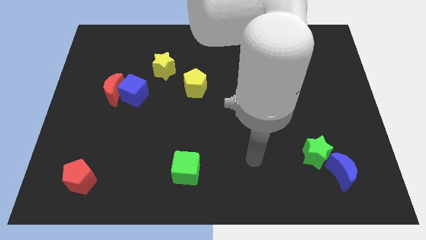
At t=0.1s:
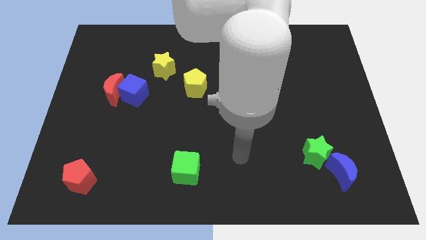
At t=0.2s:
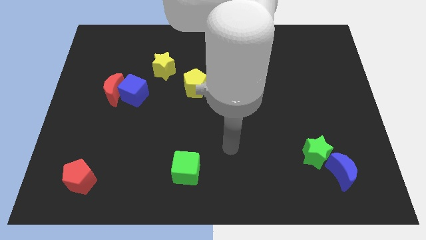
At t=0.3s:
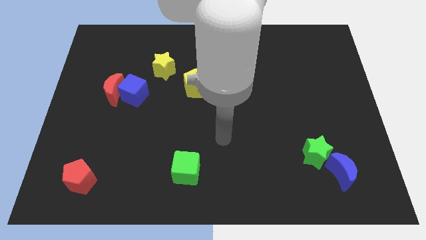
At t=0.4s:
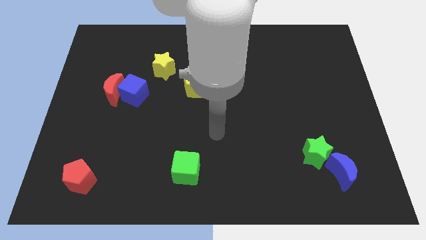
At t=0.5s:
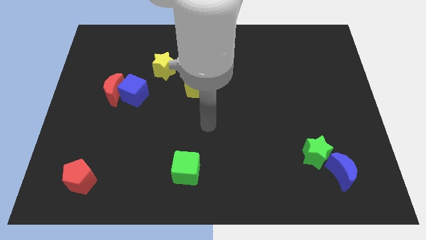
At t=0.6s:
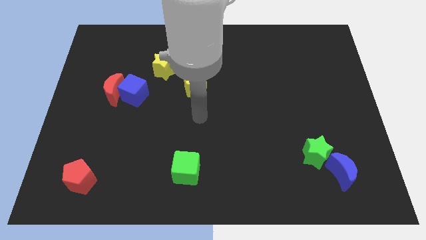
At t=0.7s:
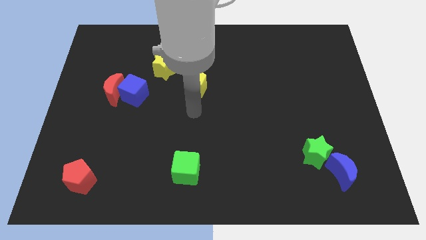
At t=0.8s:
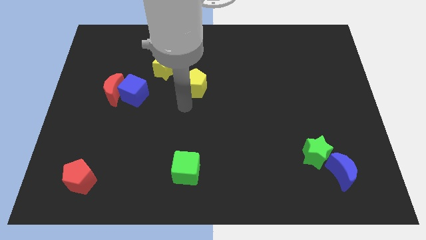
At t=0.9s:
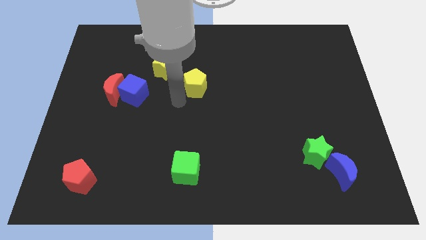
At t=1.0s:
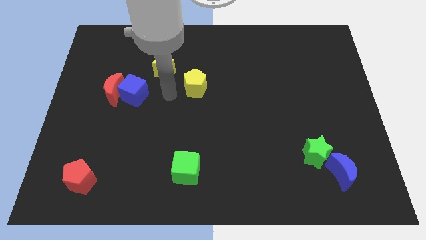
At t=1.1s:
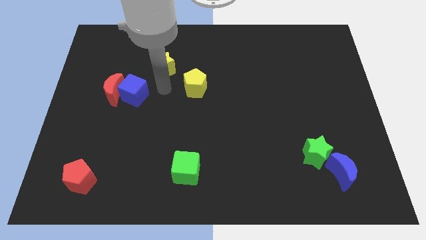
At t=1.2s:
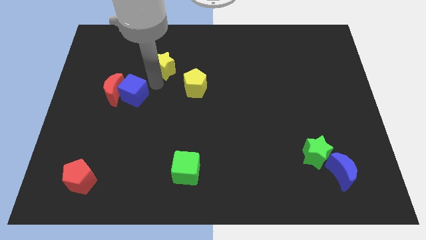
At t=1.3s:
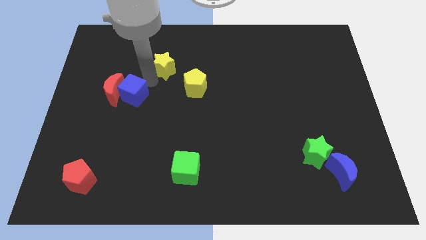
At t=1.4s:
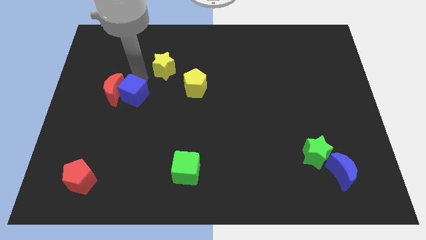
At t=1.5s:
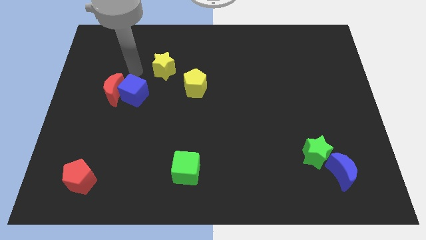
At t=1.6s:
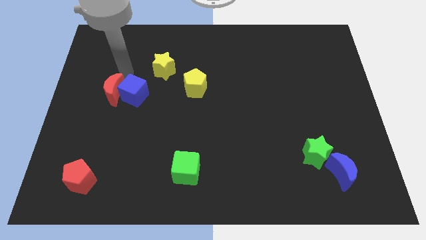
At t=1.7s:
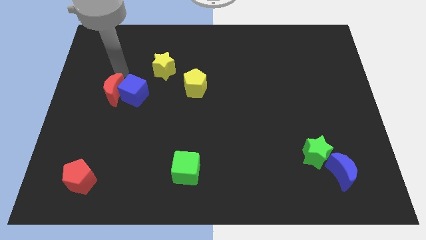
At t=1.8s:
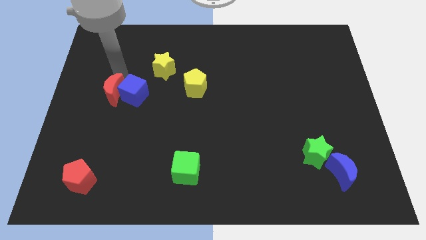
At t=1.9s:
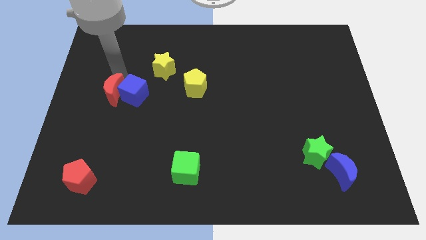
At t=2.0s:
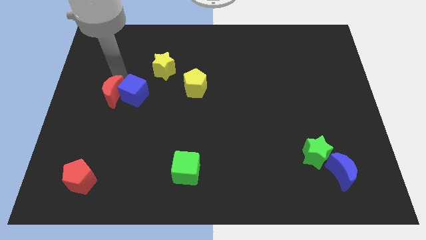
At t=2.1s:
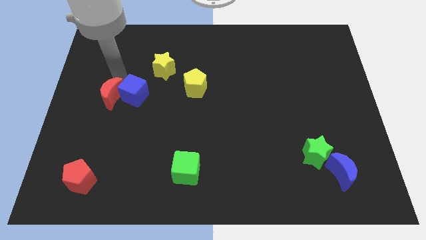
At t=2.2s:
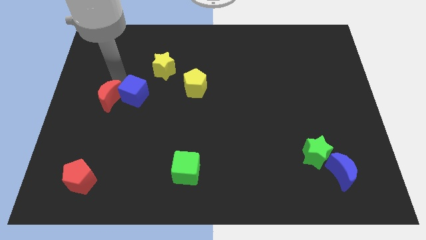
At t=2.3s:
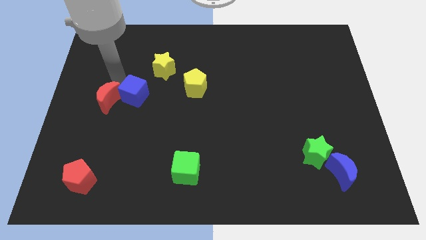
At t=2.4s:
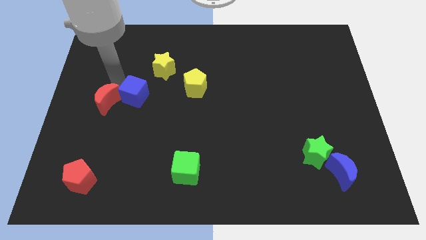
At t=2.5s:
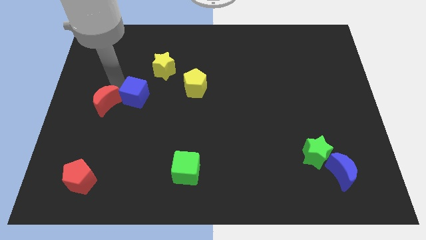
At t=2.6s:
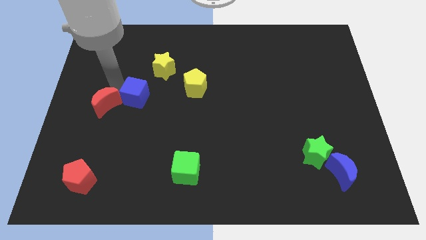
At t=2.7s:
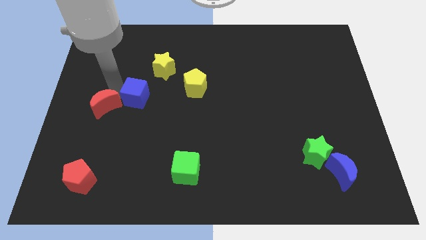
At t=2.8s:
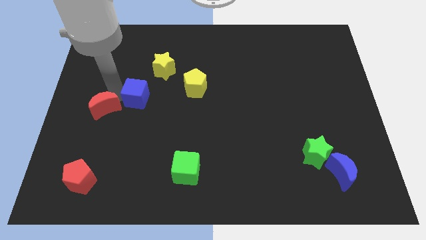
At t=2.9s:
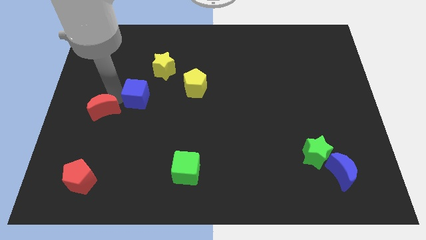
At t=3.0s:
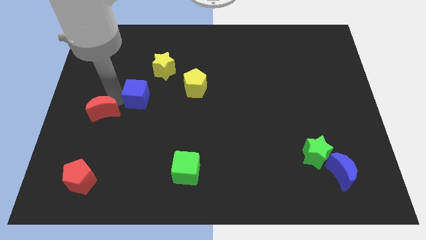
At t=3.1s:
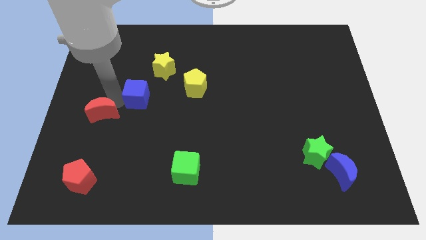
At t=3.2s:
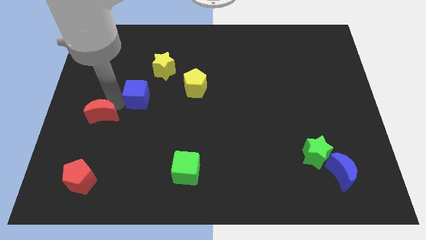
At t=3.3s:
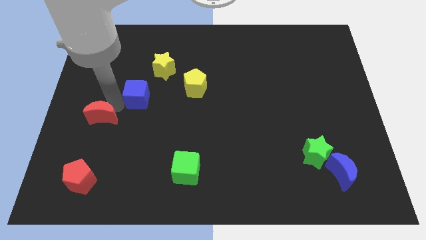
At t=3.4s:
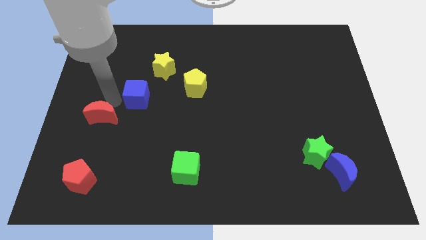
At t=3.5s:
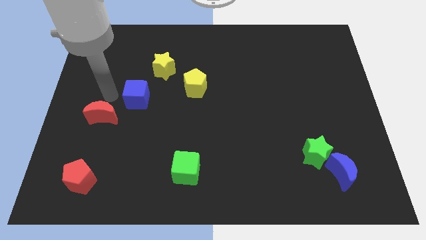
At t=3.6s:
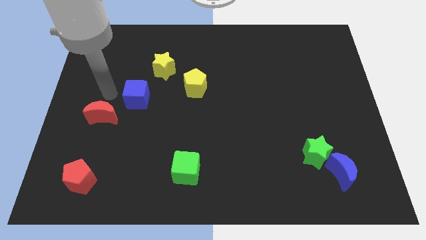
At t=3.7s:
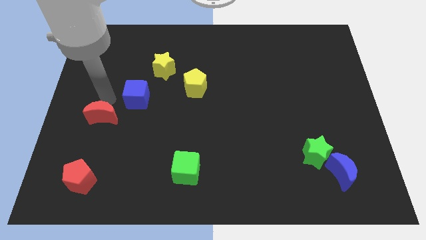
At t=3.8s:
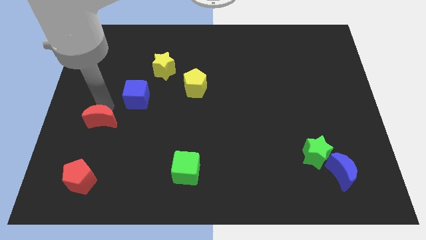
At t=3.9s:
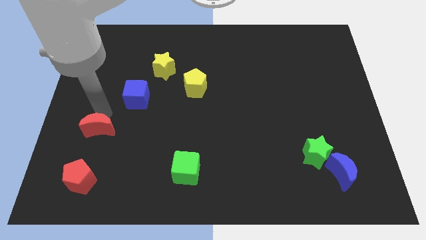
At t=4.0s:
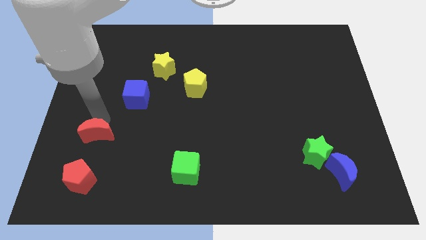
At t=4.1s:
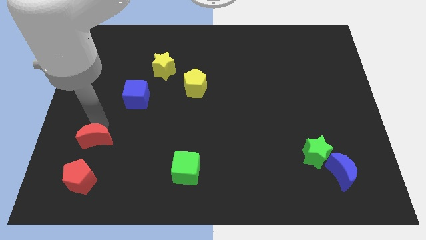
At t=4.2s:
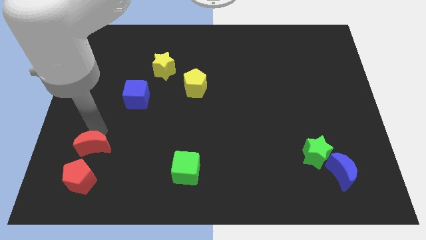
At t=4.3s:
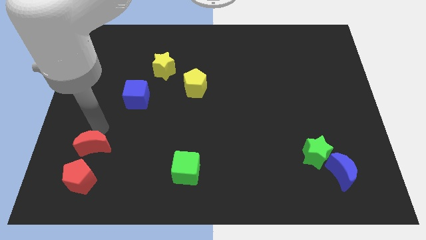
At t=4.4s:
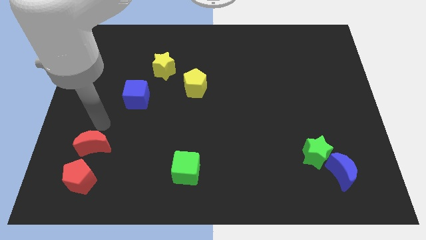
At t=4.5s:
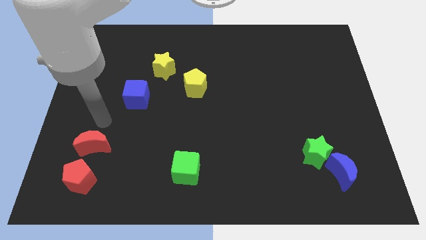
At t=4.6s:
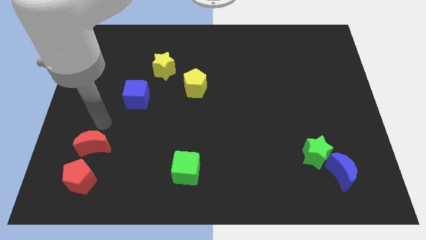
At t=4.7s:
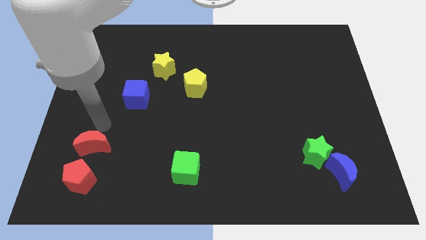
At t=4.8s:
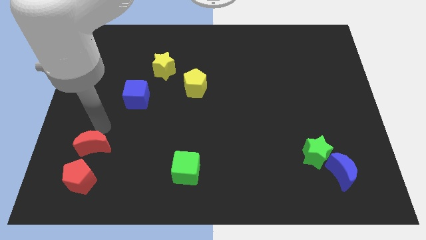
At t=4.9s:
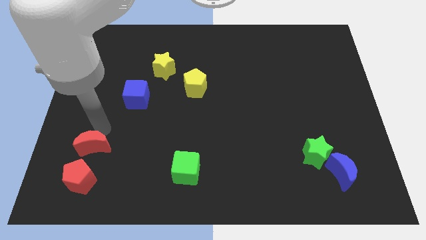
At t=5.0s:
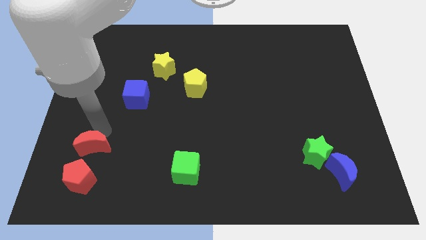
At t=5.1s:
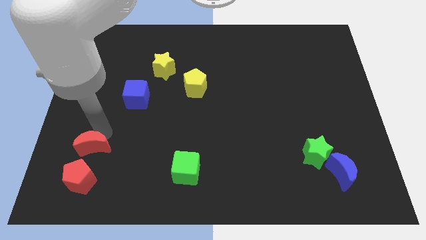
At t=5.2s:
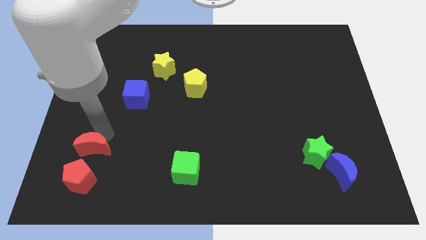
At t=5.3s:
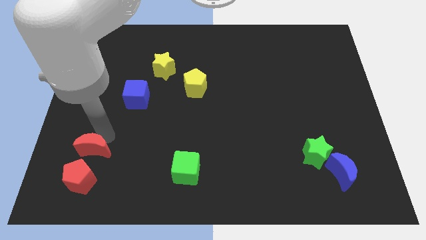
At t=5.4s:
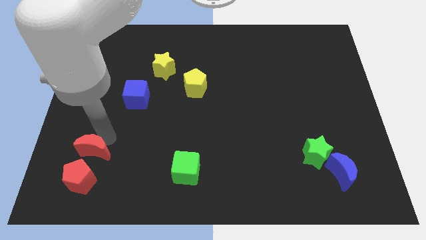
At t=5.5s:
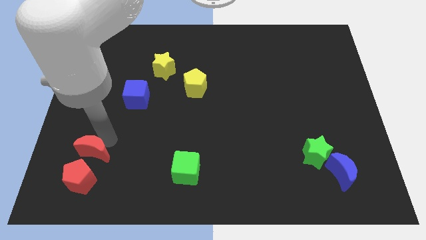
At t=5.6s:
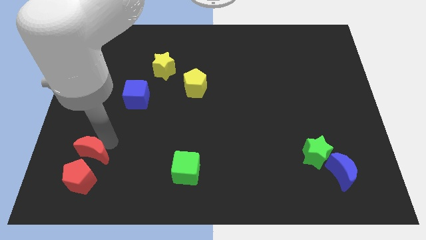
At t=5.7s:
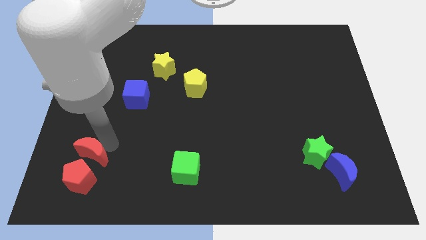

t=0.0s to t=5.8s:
push the red moon close to the red pentagon

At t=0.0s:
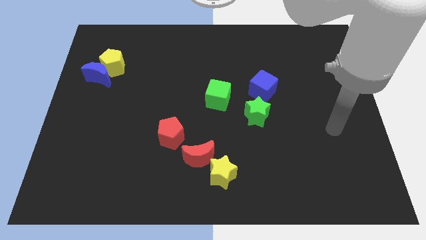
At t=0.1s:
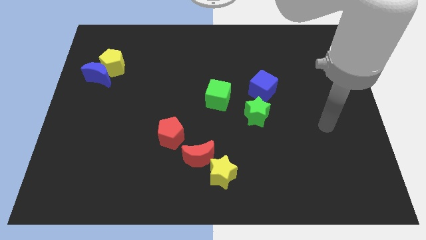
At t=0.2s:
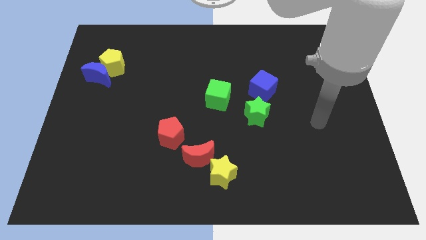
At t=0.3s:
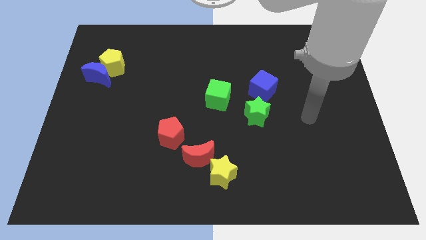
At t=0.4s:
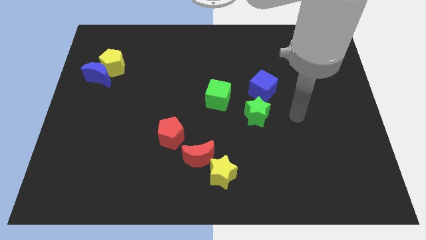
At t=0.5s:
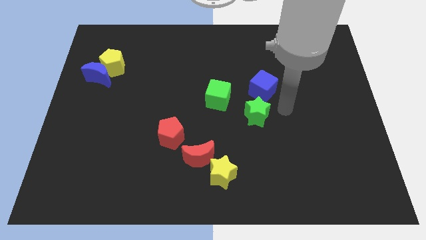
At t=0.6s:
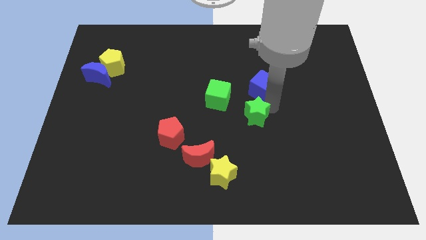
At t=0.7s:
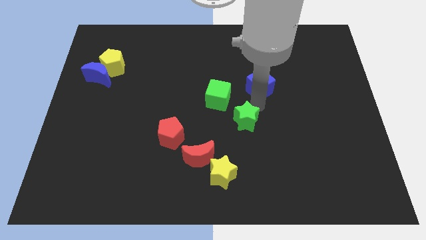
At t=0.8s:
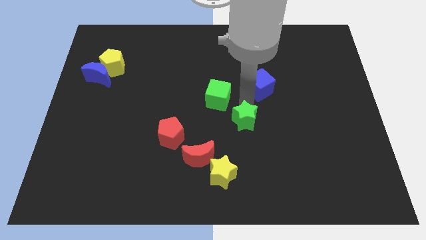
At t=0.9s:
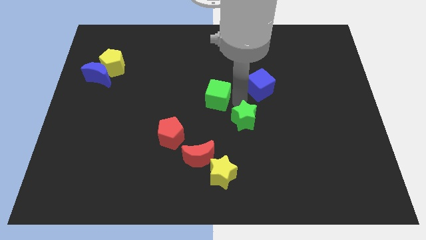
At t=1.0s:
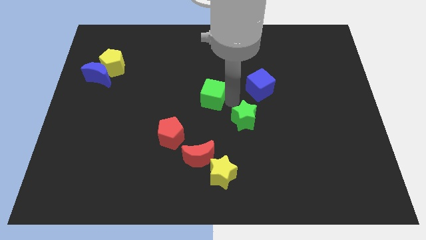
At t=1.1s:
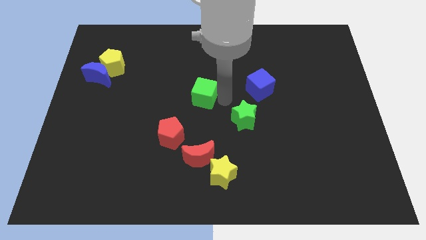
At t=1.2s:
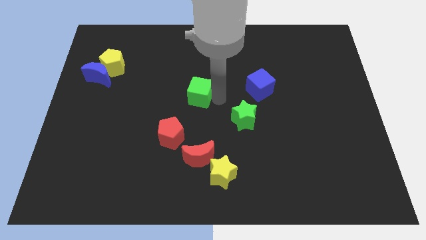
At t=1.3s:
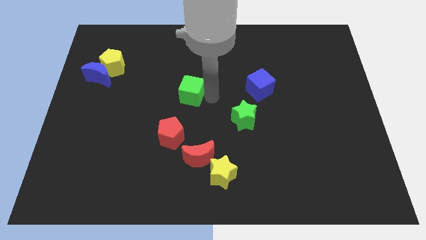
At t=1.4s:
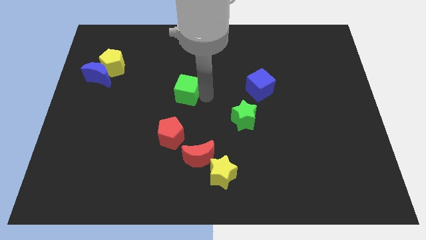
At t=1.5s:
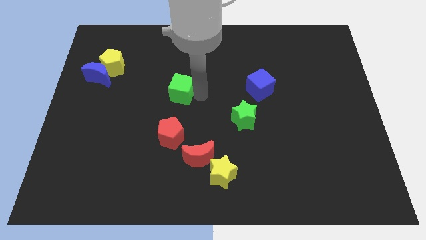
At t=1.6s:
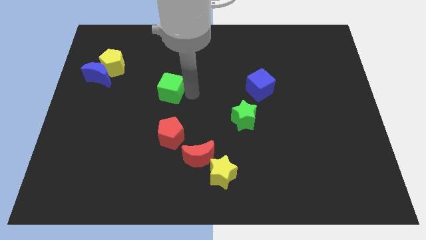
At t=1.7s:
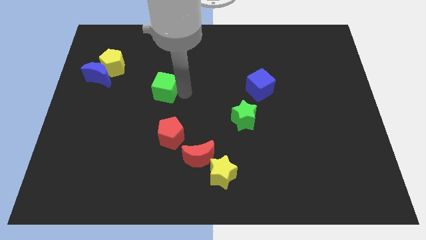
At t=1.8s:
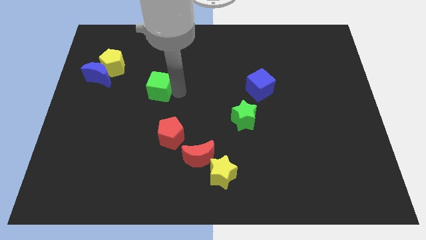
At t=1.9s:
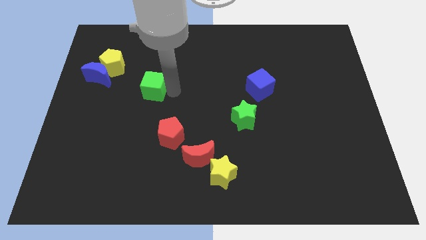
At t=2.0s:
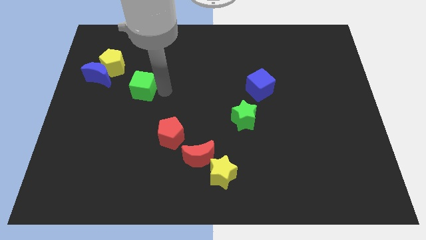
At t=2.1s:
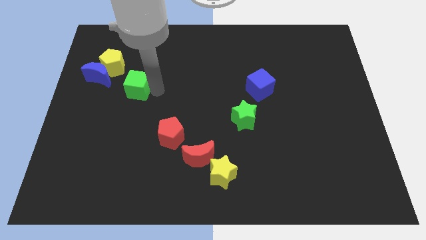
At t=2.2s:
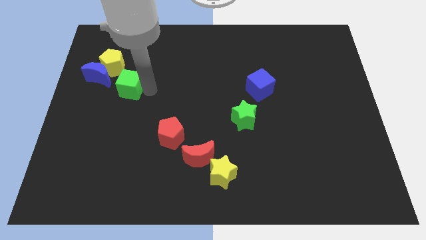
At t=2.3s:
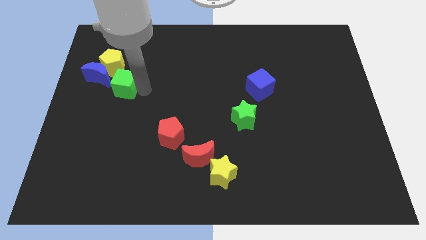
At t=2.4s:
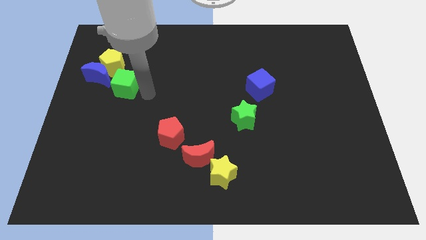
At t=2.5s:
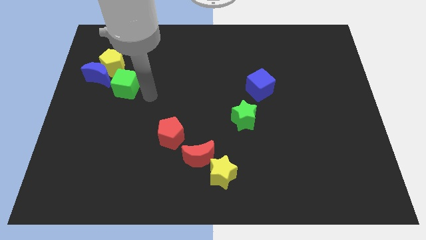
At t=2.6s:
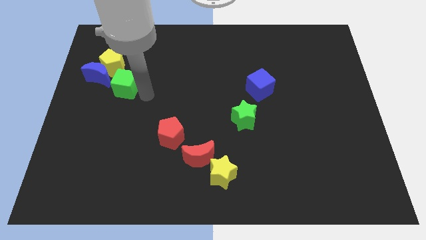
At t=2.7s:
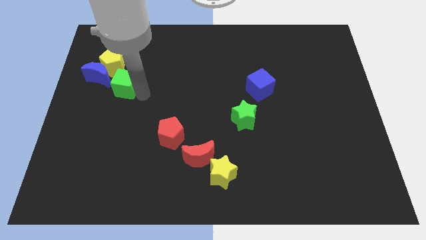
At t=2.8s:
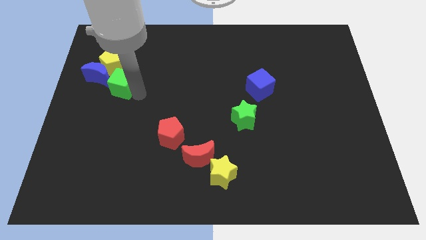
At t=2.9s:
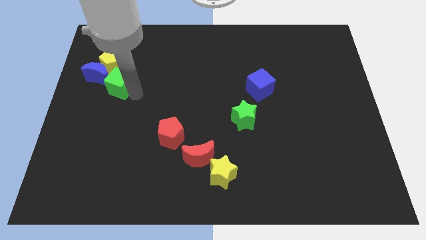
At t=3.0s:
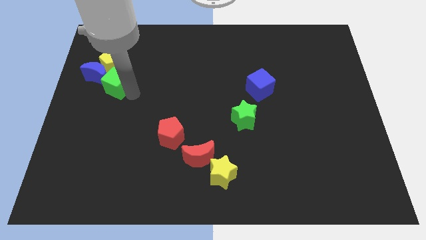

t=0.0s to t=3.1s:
put the green cube towards the blue moon
